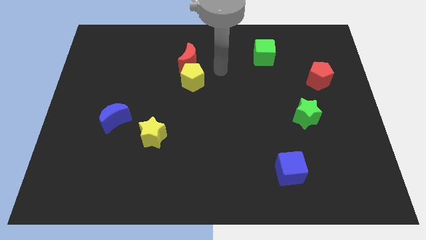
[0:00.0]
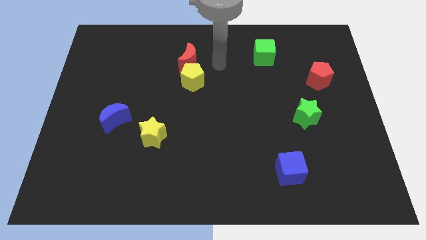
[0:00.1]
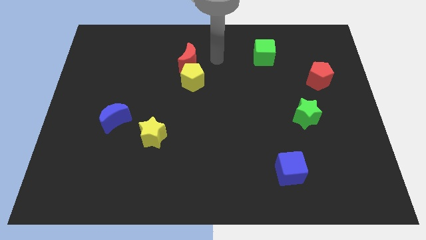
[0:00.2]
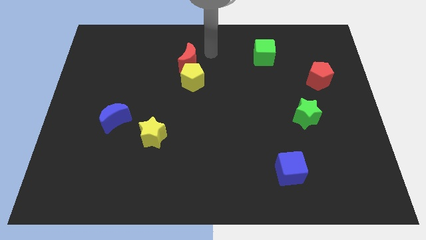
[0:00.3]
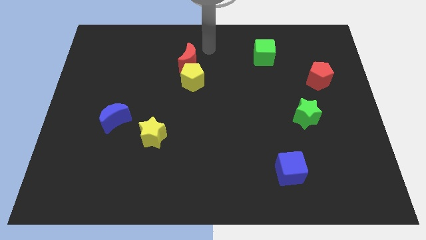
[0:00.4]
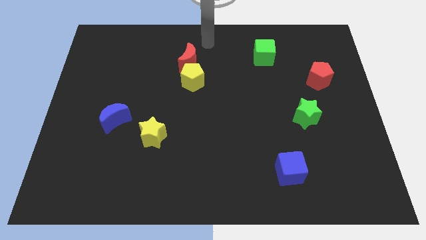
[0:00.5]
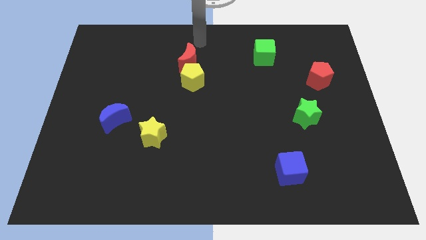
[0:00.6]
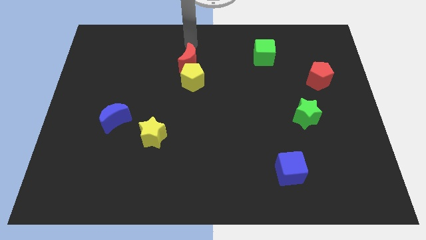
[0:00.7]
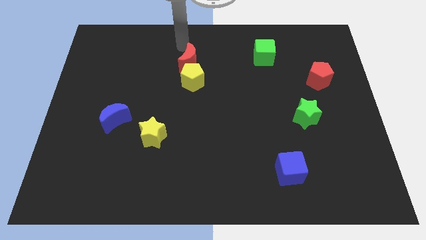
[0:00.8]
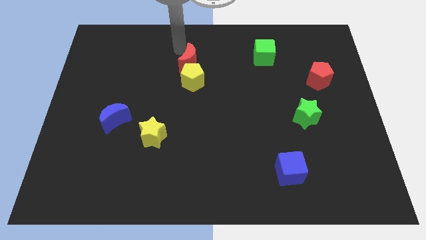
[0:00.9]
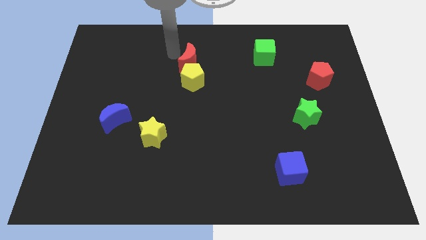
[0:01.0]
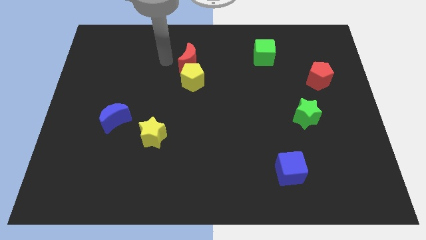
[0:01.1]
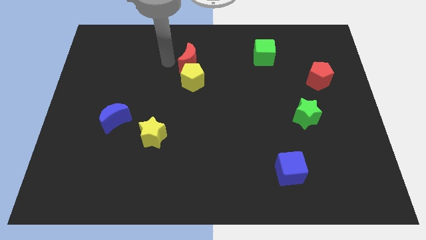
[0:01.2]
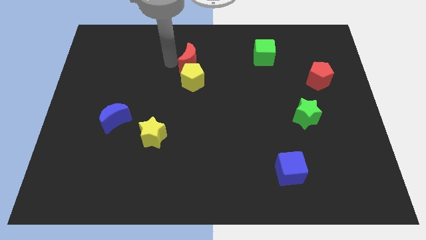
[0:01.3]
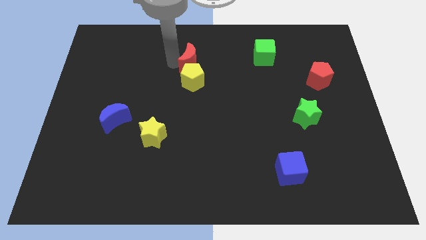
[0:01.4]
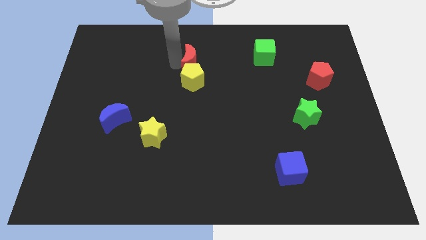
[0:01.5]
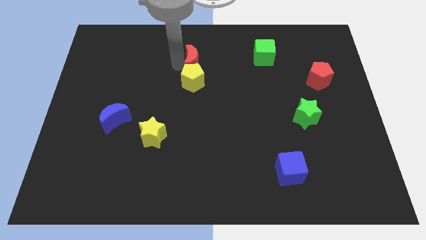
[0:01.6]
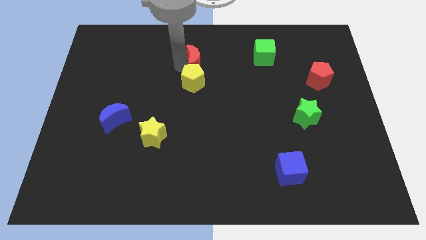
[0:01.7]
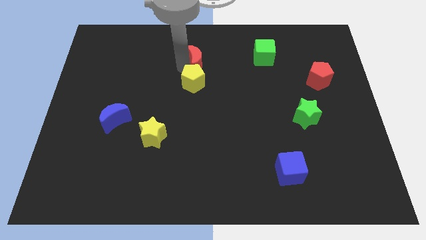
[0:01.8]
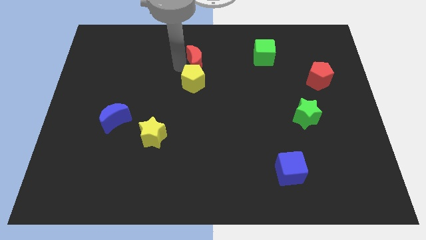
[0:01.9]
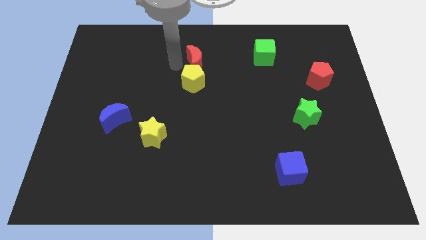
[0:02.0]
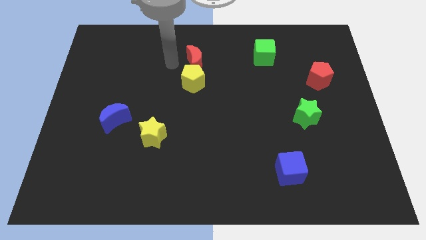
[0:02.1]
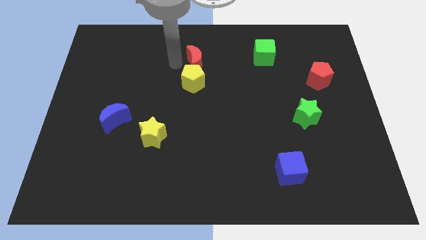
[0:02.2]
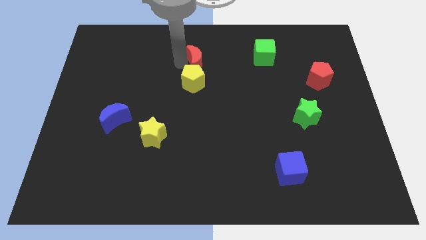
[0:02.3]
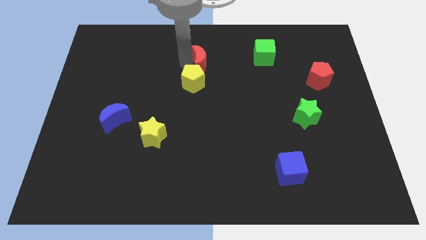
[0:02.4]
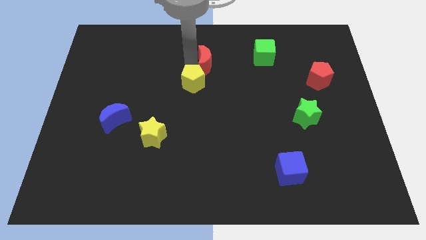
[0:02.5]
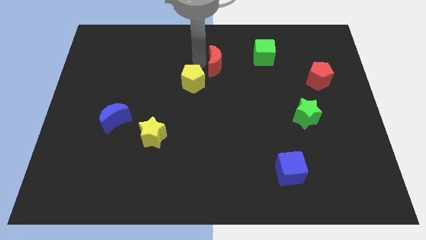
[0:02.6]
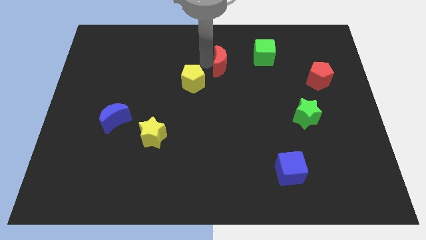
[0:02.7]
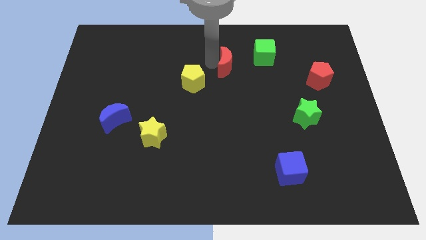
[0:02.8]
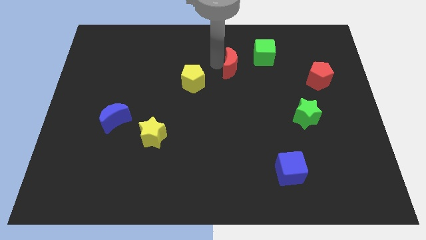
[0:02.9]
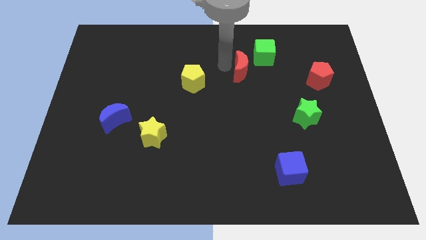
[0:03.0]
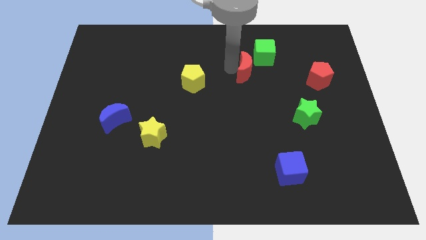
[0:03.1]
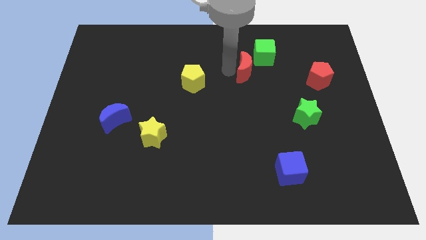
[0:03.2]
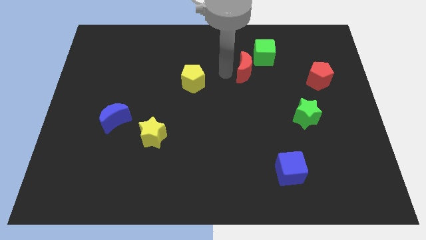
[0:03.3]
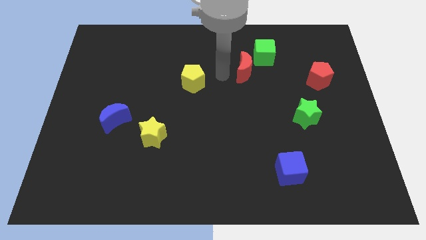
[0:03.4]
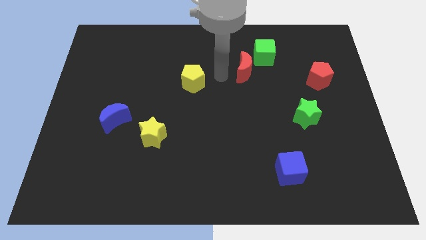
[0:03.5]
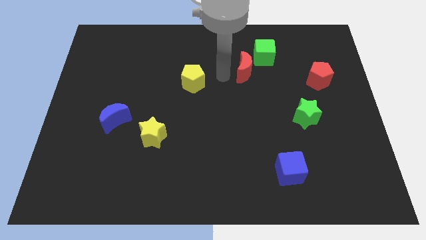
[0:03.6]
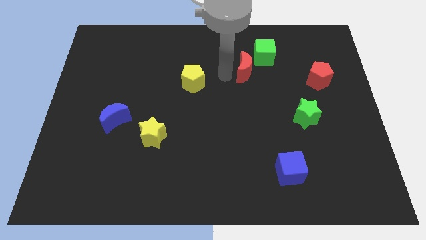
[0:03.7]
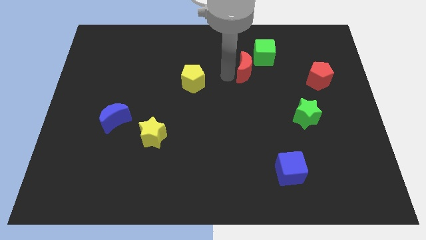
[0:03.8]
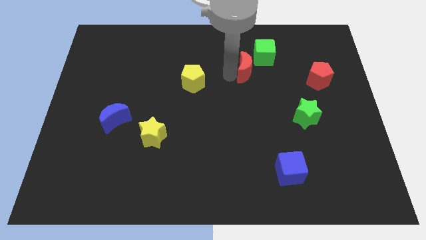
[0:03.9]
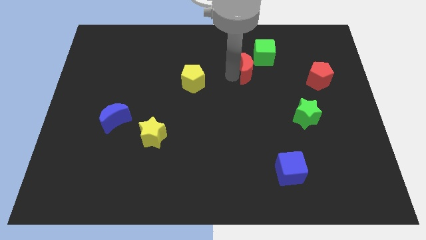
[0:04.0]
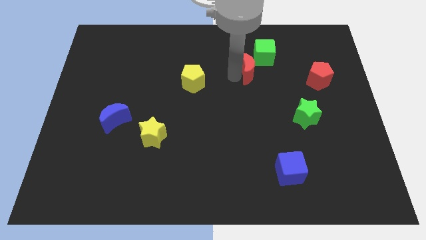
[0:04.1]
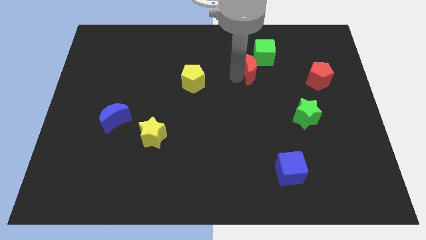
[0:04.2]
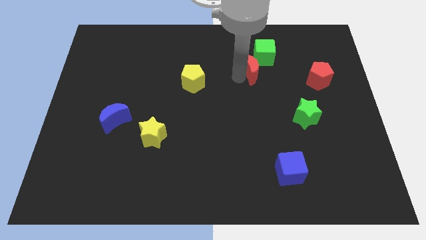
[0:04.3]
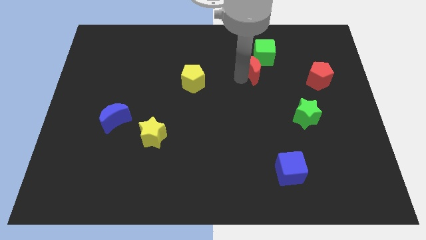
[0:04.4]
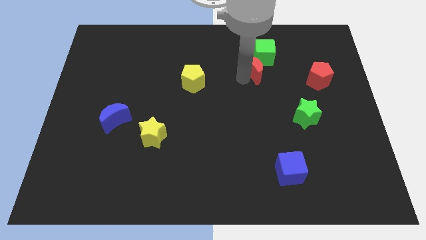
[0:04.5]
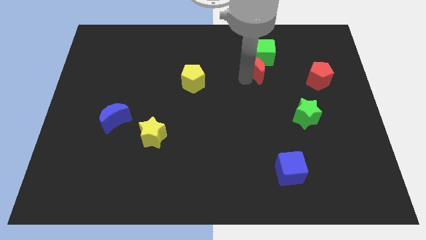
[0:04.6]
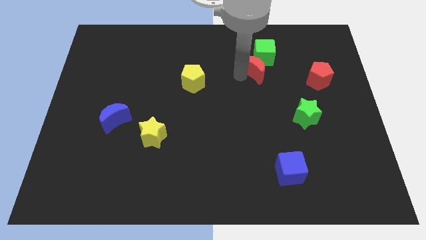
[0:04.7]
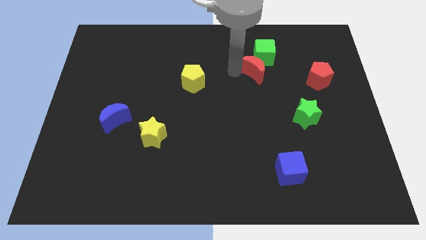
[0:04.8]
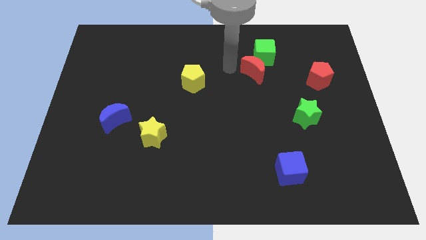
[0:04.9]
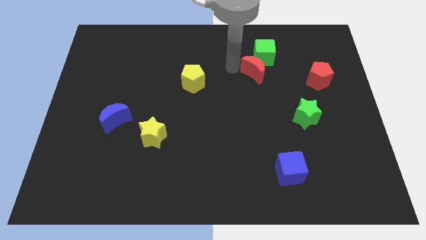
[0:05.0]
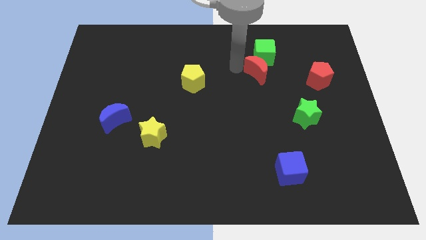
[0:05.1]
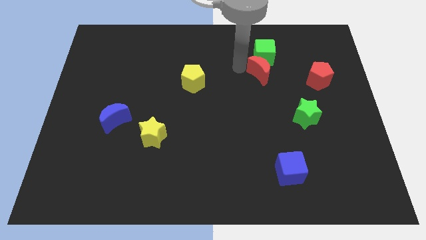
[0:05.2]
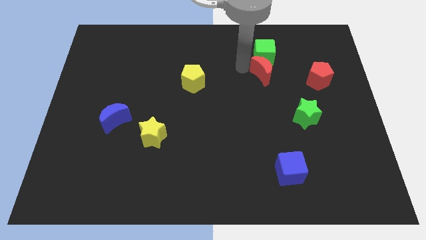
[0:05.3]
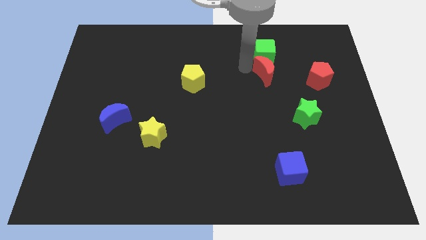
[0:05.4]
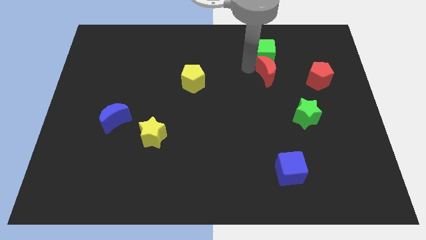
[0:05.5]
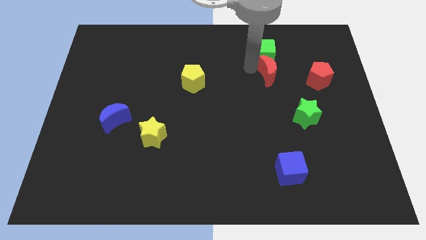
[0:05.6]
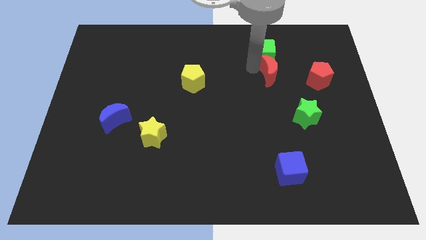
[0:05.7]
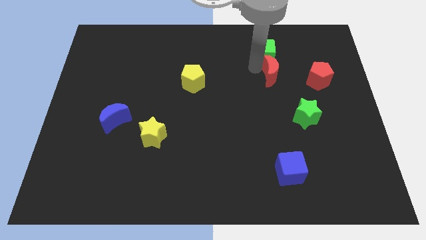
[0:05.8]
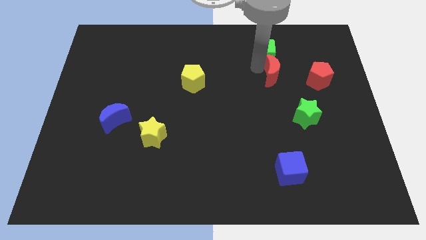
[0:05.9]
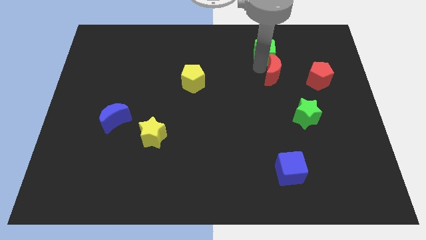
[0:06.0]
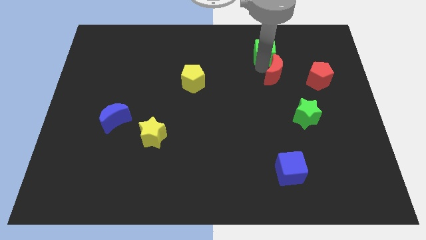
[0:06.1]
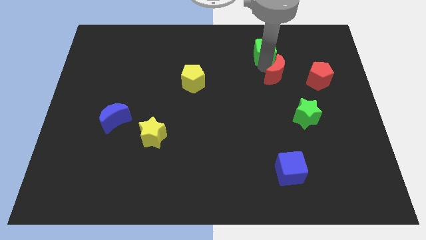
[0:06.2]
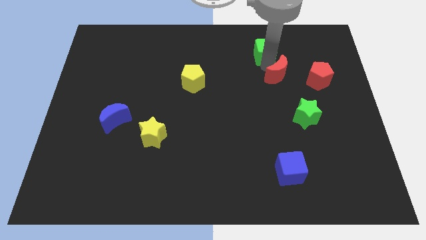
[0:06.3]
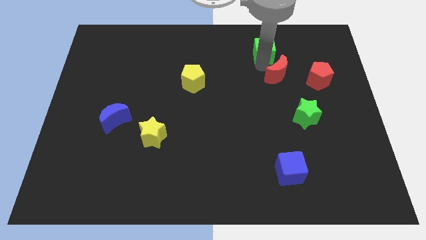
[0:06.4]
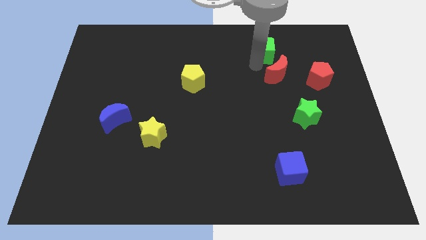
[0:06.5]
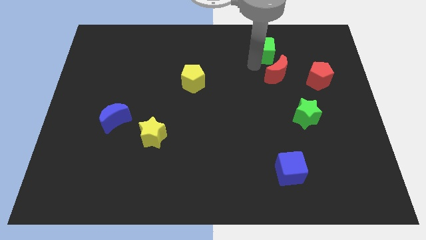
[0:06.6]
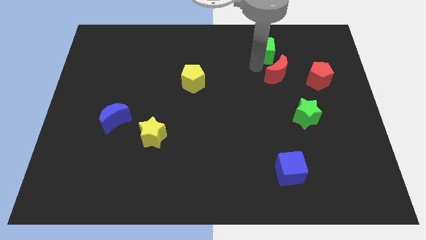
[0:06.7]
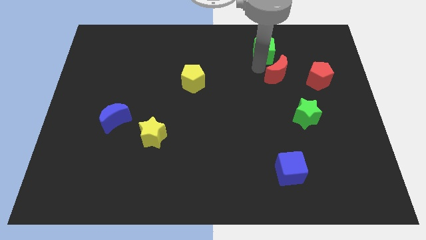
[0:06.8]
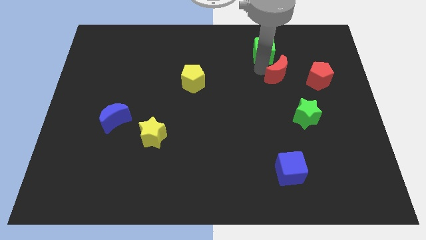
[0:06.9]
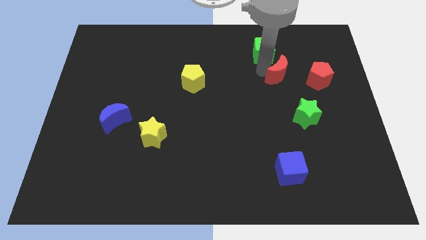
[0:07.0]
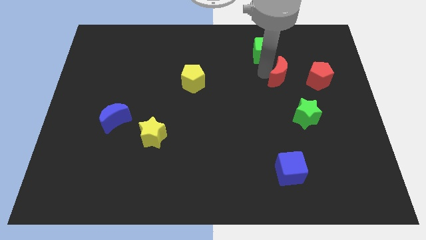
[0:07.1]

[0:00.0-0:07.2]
push the red moon to the top of the green star

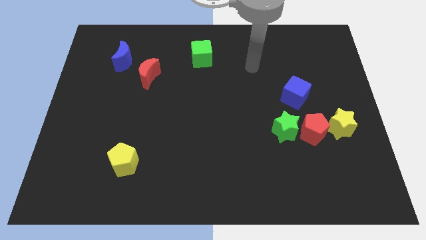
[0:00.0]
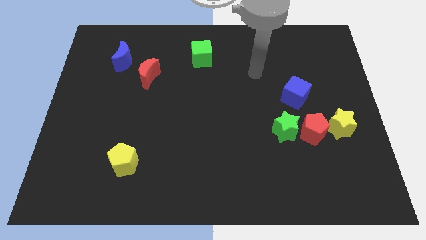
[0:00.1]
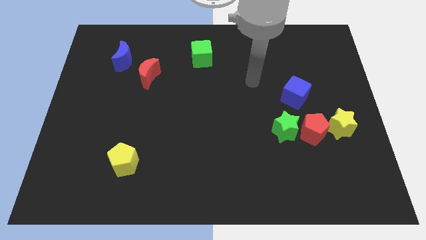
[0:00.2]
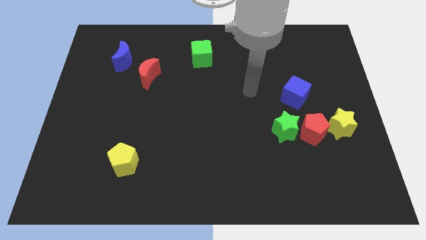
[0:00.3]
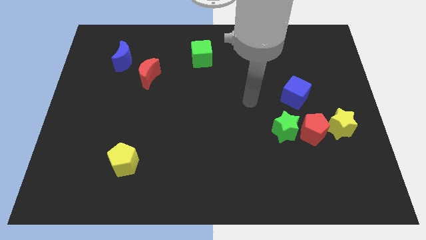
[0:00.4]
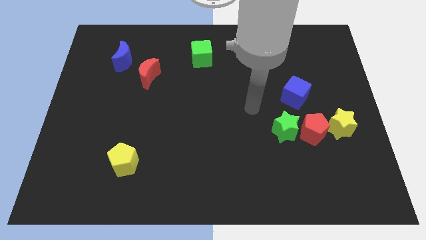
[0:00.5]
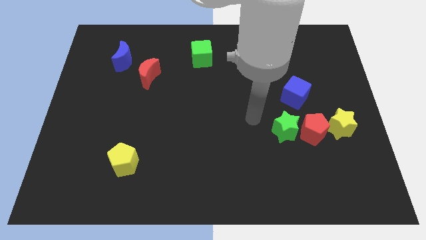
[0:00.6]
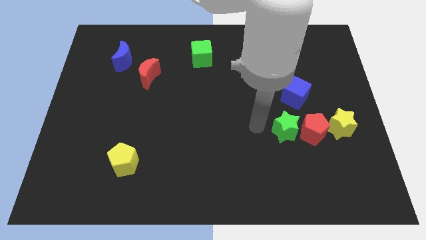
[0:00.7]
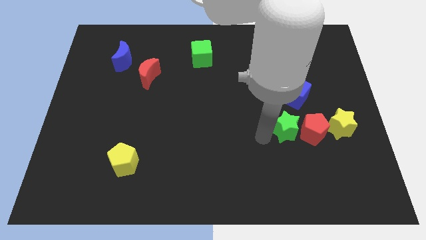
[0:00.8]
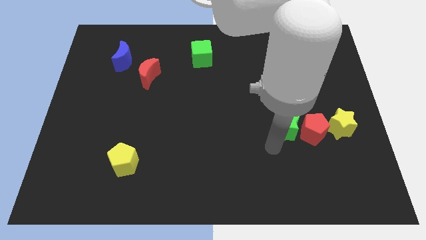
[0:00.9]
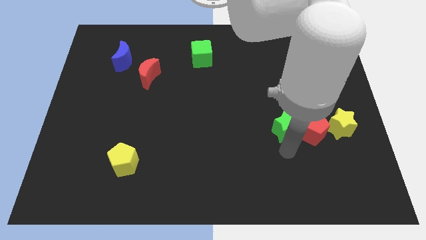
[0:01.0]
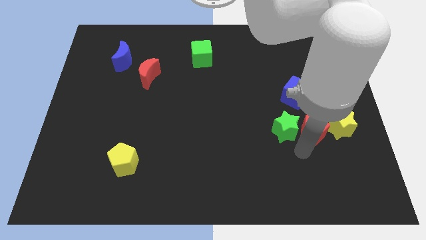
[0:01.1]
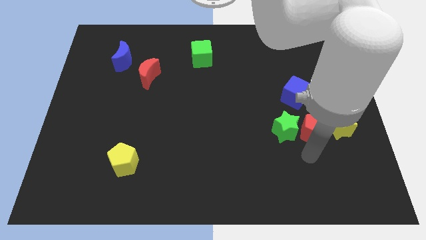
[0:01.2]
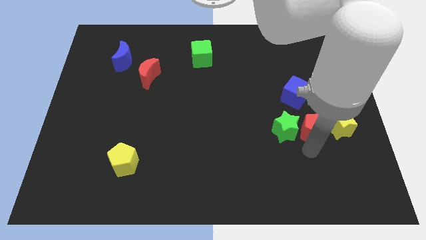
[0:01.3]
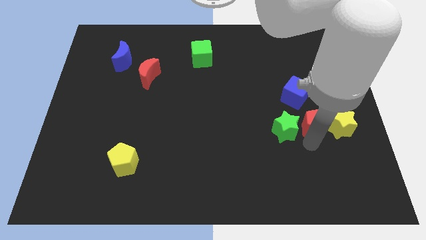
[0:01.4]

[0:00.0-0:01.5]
move the red pentagon to the top left side of the yellow star
